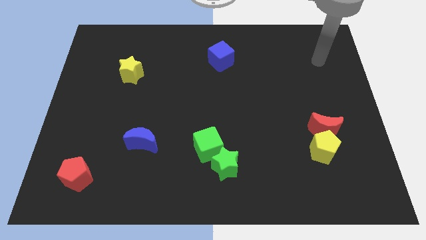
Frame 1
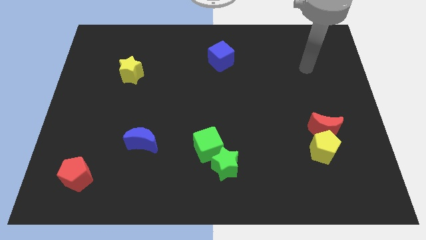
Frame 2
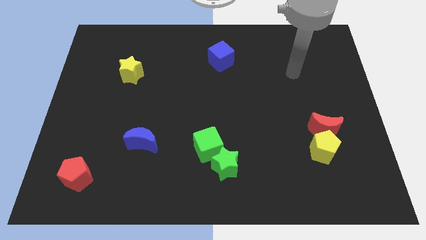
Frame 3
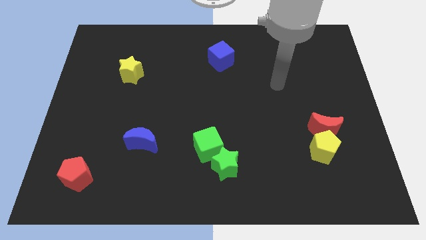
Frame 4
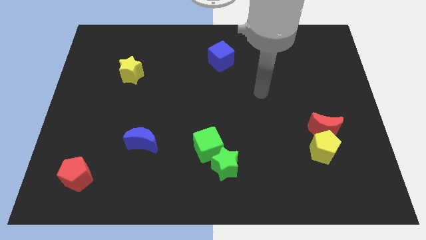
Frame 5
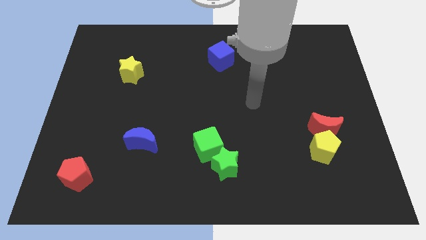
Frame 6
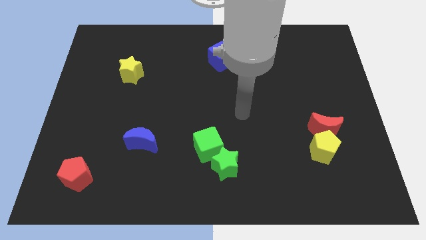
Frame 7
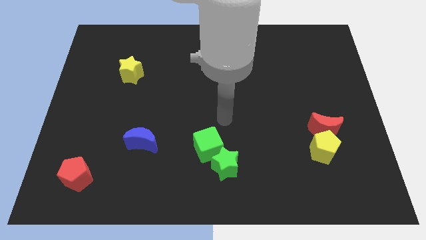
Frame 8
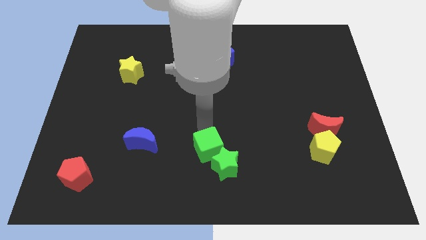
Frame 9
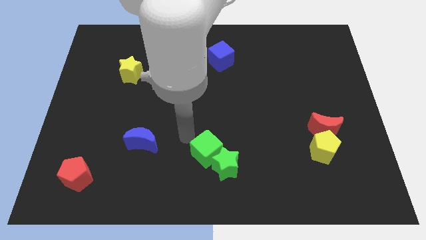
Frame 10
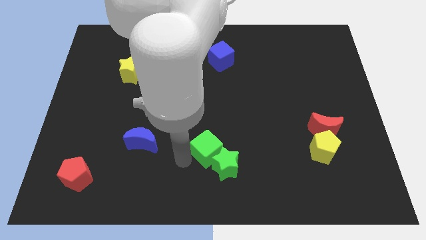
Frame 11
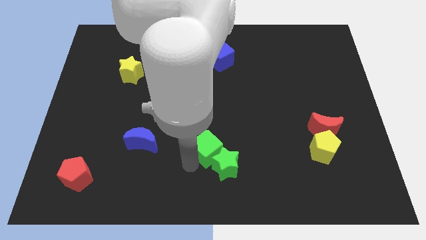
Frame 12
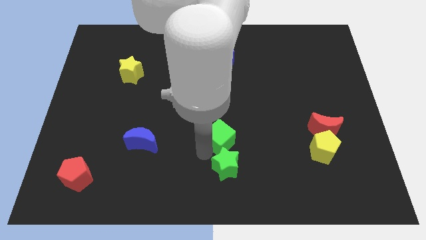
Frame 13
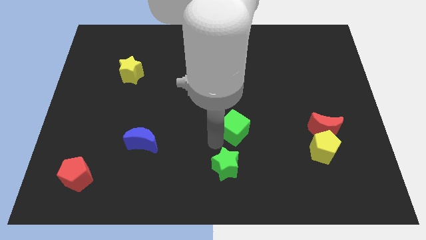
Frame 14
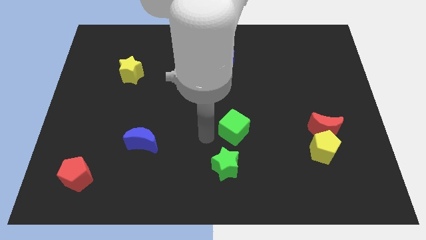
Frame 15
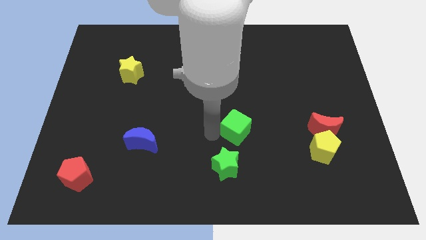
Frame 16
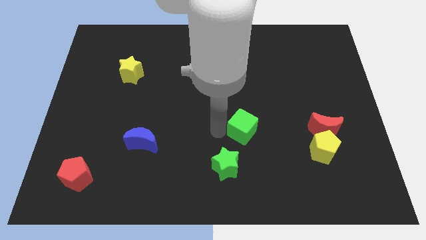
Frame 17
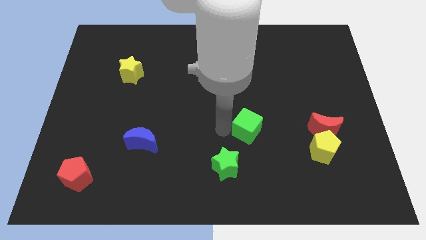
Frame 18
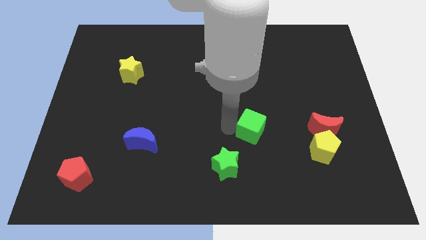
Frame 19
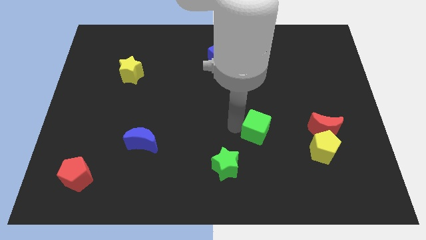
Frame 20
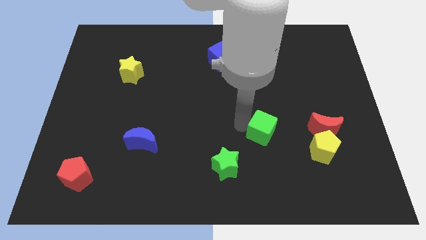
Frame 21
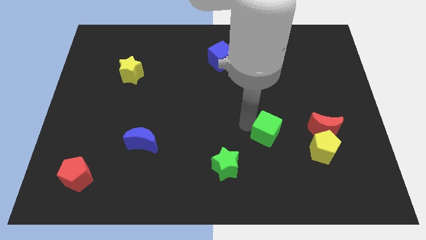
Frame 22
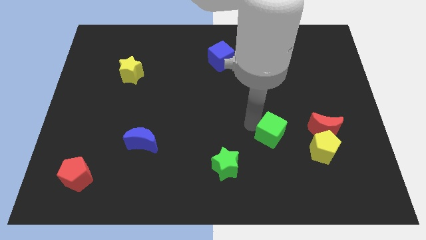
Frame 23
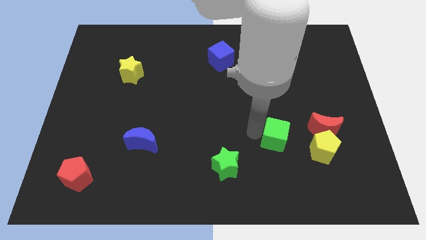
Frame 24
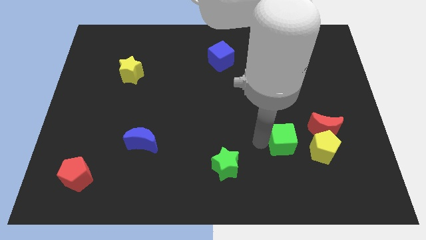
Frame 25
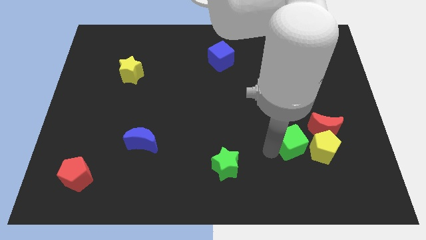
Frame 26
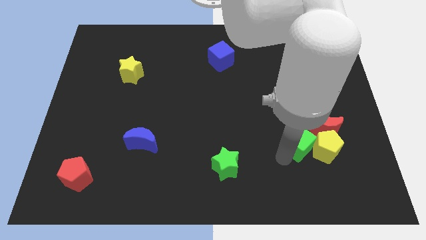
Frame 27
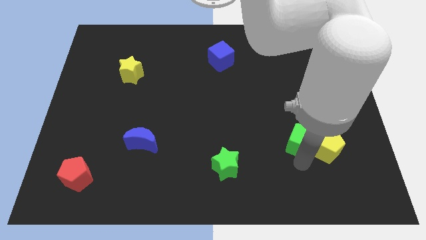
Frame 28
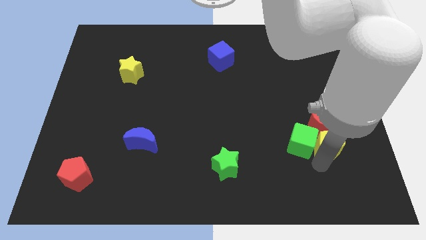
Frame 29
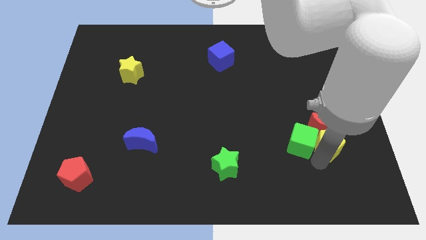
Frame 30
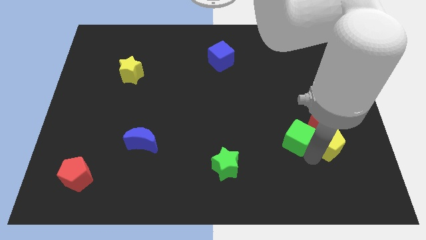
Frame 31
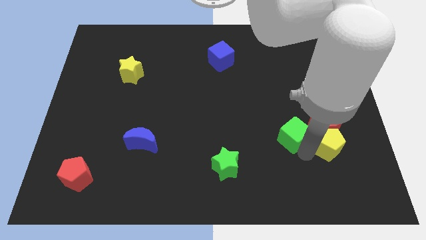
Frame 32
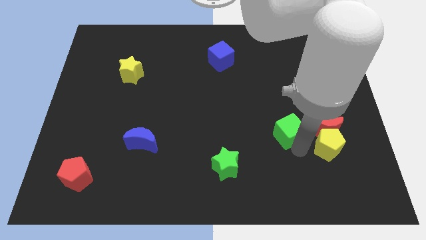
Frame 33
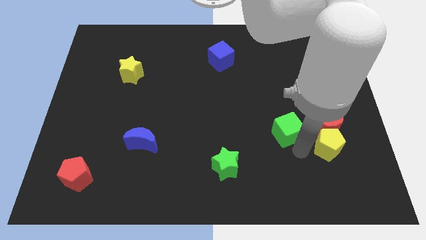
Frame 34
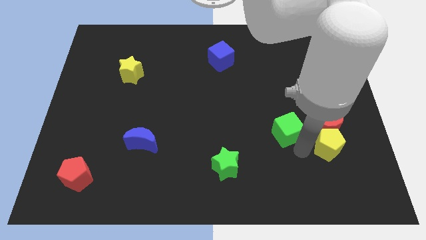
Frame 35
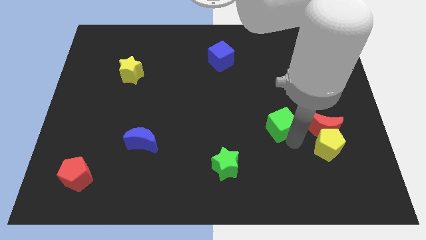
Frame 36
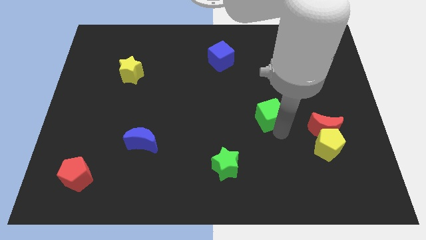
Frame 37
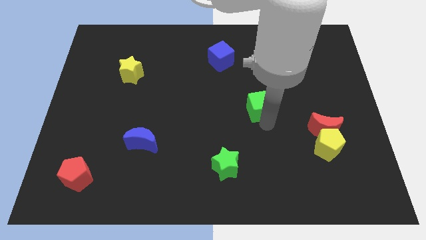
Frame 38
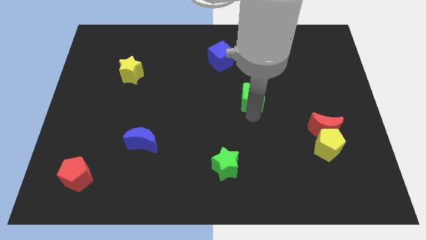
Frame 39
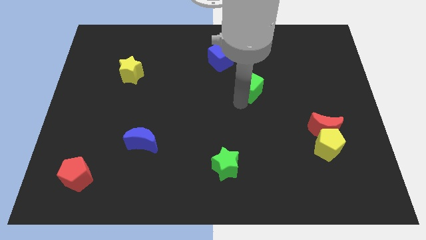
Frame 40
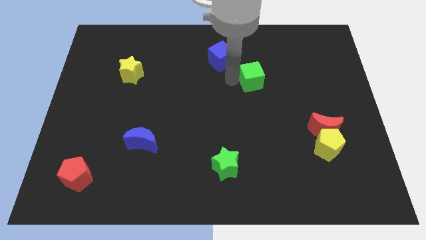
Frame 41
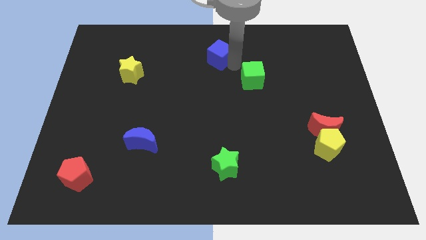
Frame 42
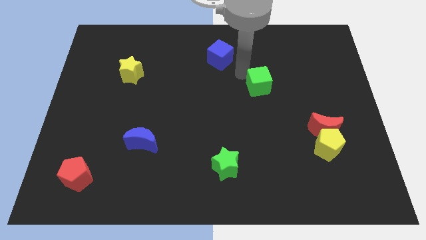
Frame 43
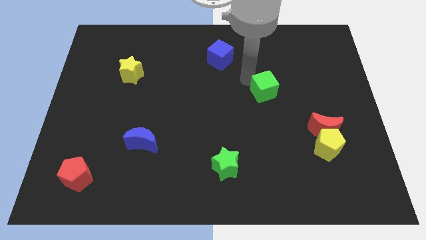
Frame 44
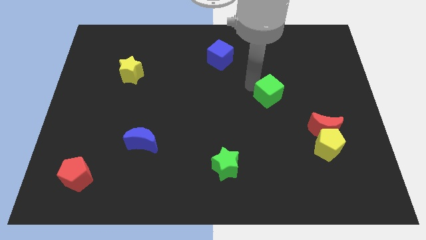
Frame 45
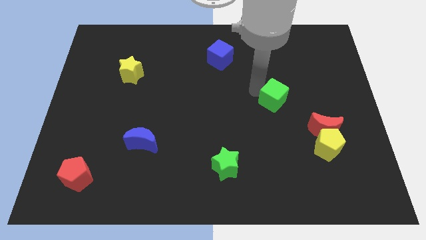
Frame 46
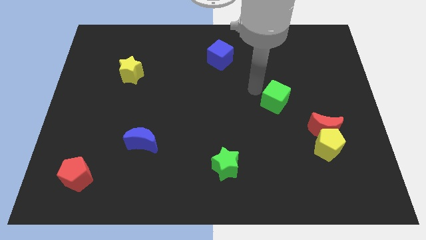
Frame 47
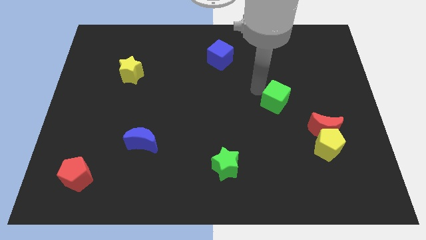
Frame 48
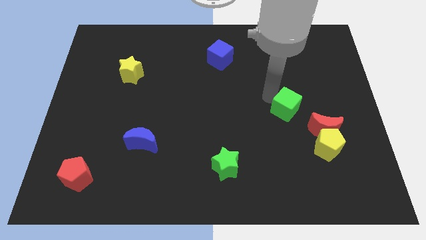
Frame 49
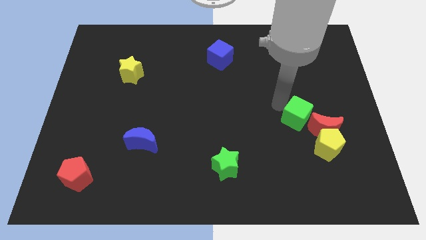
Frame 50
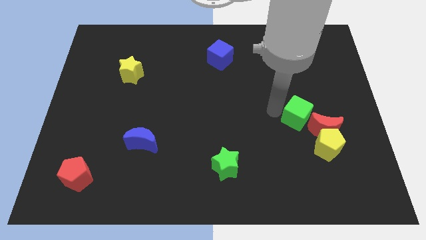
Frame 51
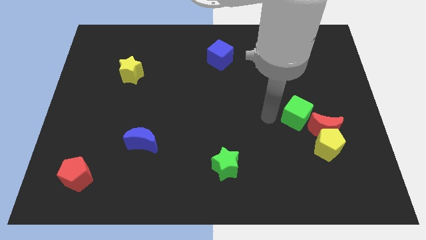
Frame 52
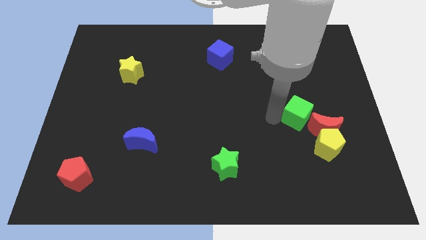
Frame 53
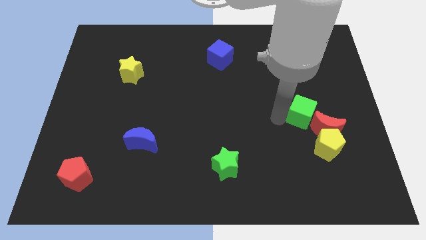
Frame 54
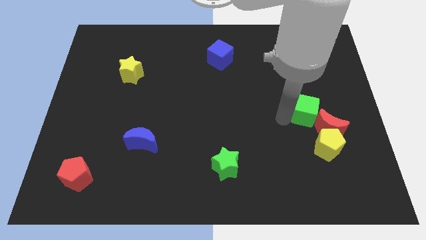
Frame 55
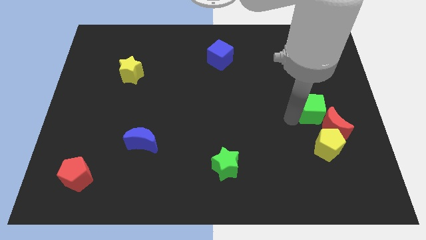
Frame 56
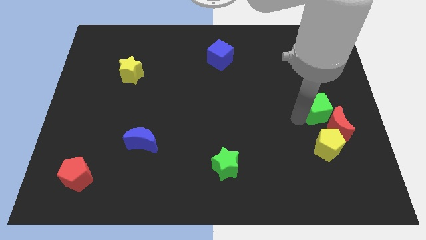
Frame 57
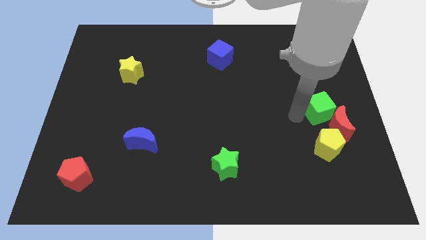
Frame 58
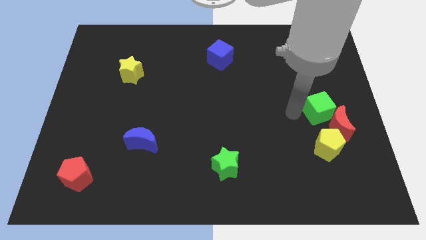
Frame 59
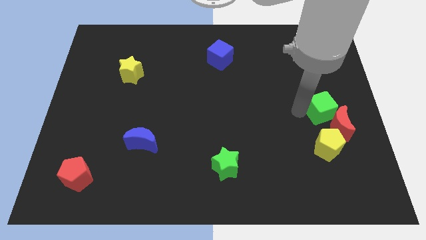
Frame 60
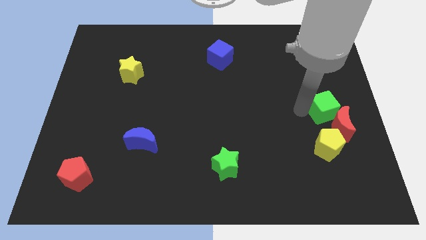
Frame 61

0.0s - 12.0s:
push the green cube to the center right

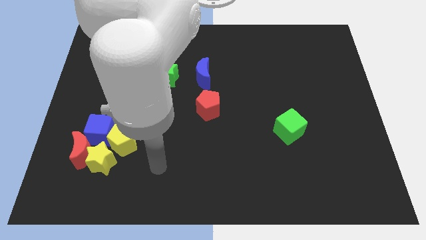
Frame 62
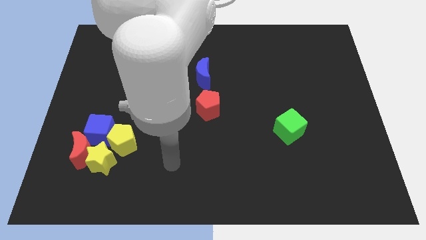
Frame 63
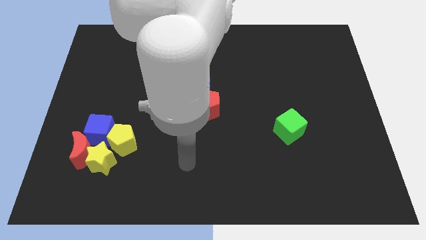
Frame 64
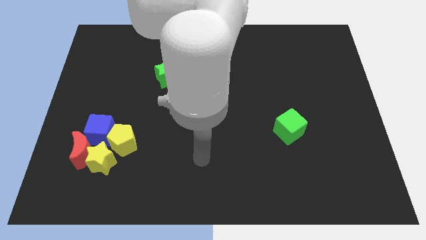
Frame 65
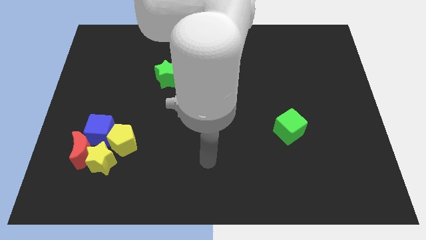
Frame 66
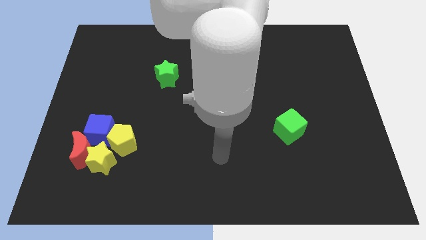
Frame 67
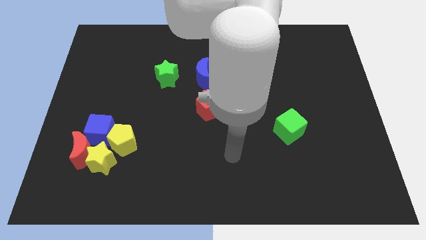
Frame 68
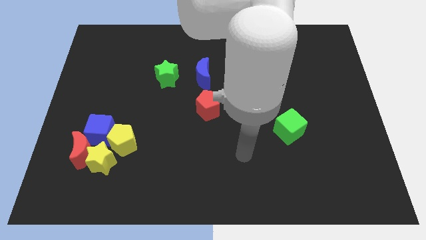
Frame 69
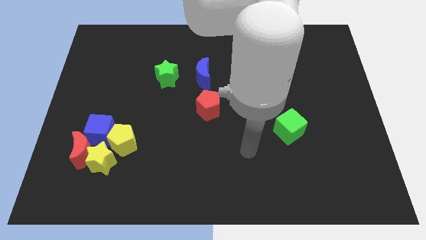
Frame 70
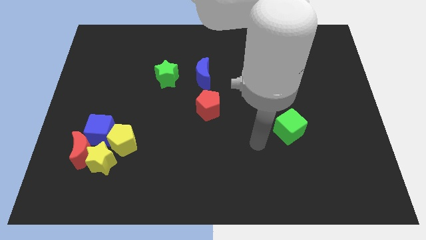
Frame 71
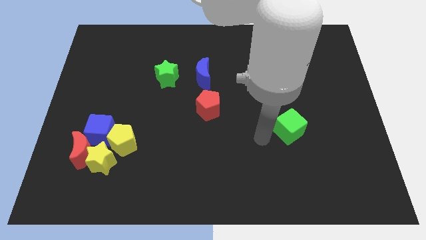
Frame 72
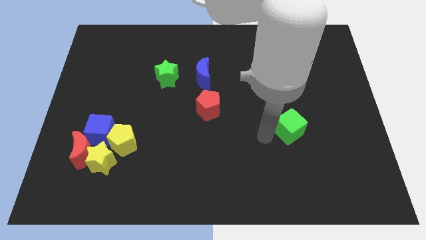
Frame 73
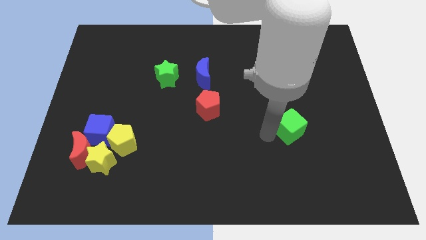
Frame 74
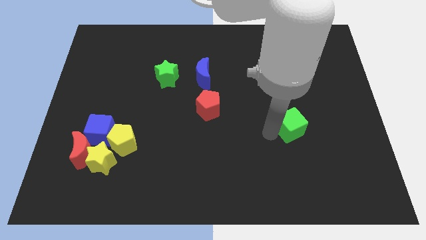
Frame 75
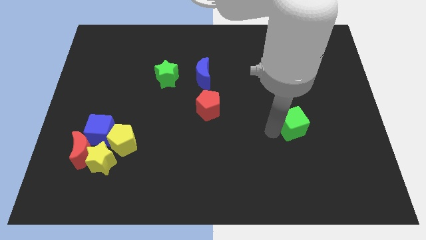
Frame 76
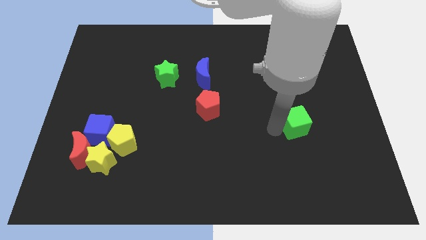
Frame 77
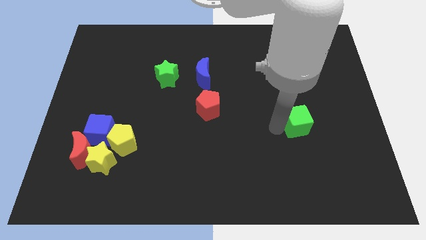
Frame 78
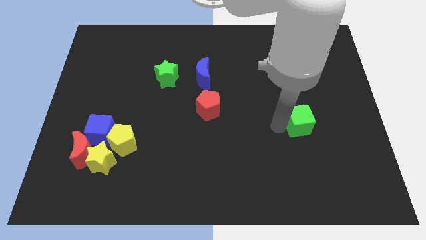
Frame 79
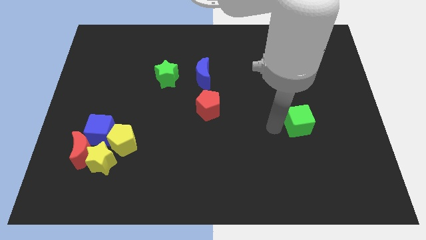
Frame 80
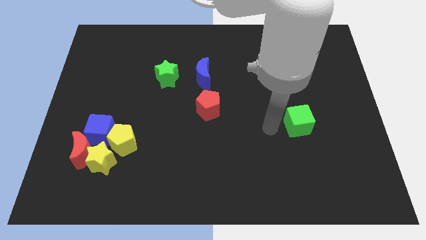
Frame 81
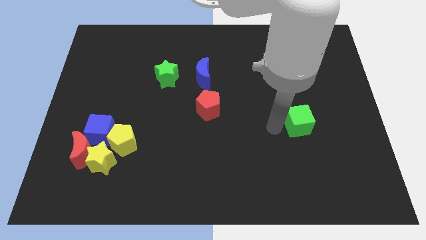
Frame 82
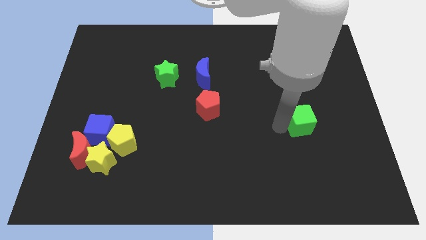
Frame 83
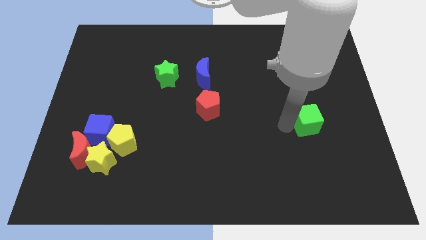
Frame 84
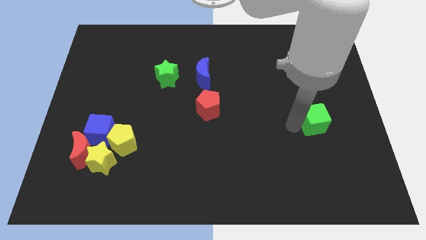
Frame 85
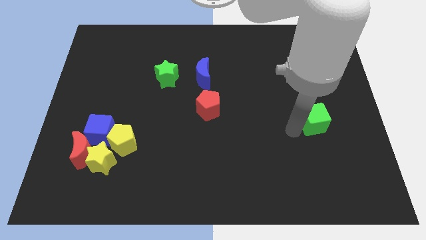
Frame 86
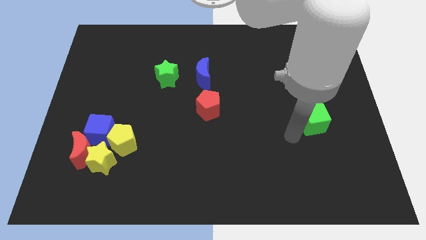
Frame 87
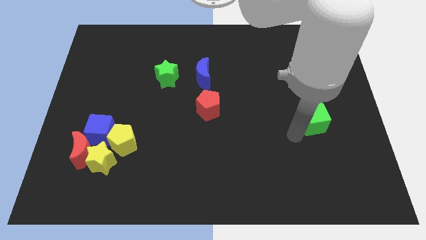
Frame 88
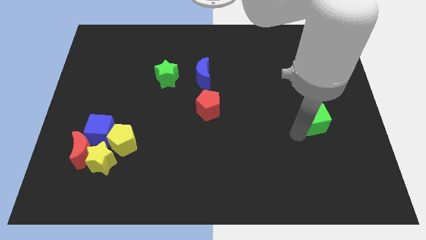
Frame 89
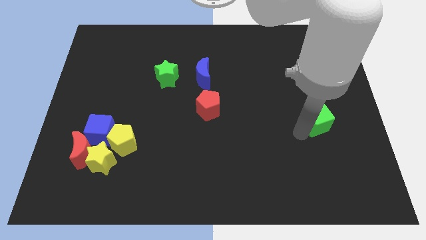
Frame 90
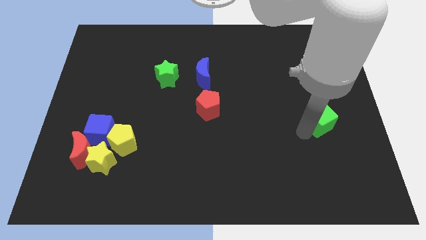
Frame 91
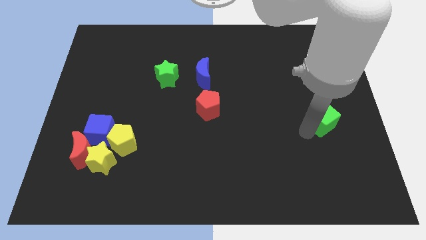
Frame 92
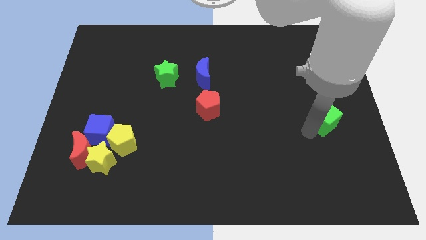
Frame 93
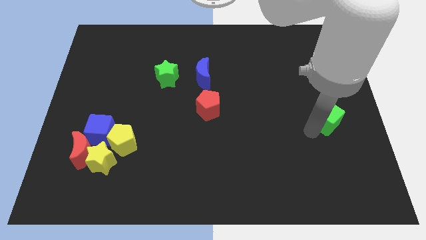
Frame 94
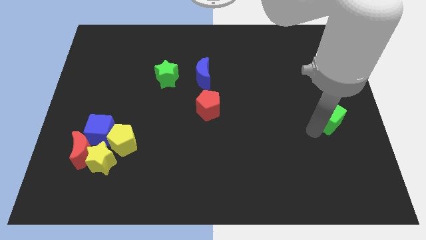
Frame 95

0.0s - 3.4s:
slide the green cube to the right side
